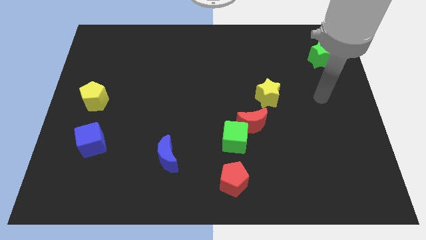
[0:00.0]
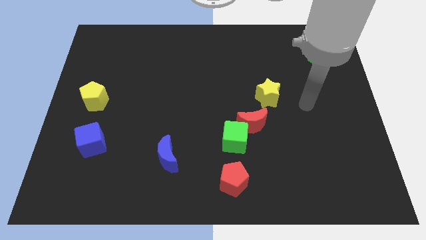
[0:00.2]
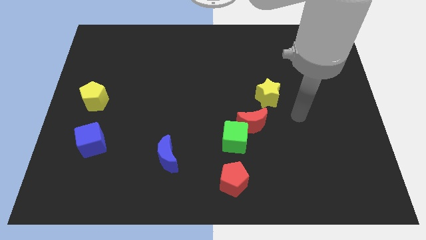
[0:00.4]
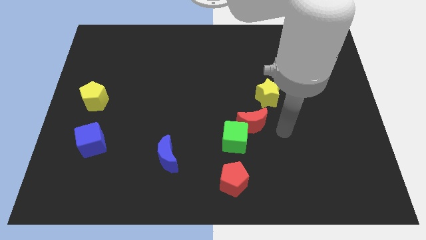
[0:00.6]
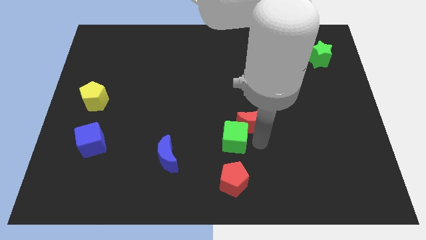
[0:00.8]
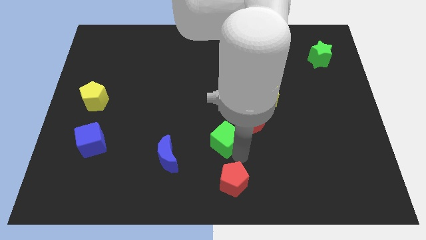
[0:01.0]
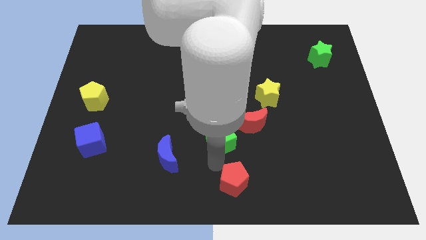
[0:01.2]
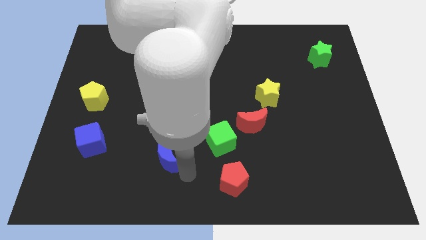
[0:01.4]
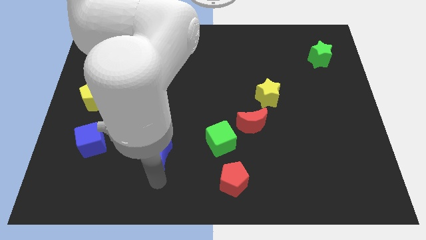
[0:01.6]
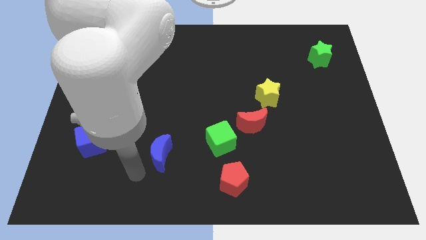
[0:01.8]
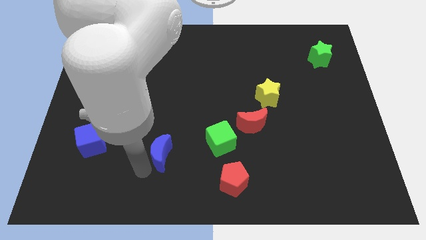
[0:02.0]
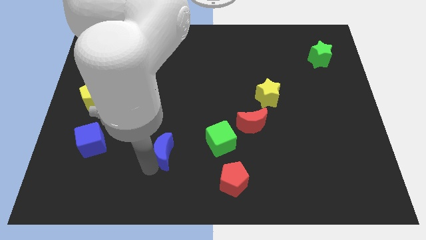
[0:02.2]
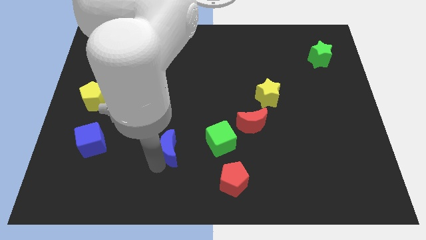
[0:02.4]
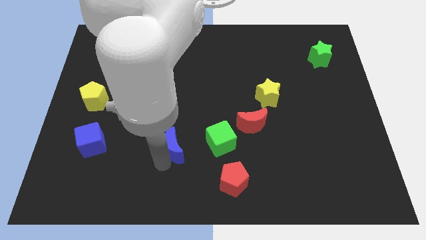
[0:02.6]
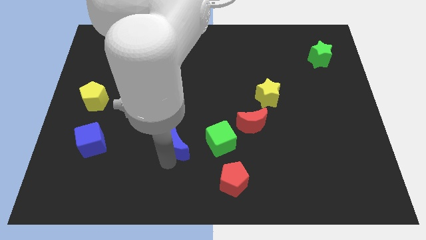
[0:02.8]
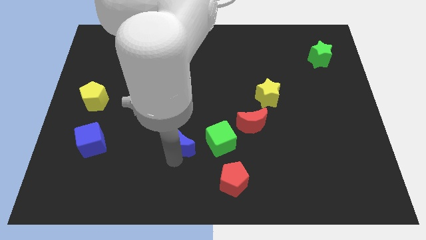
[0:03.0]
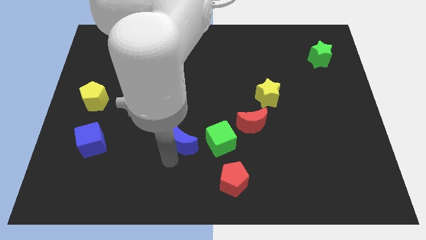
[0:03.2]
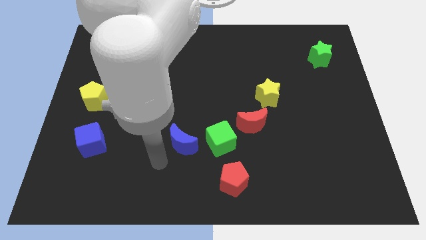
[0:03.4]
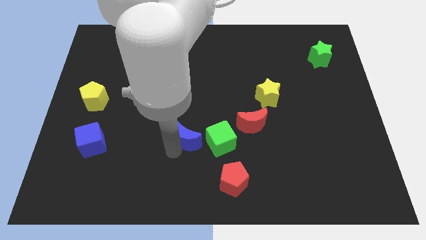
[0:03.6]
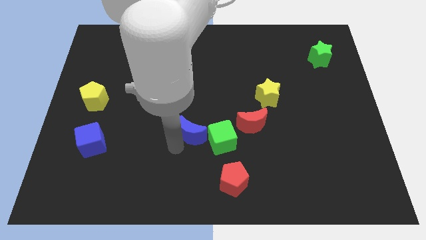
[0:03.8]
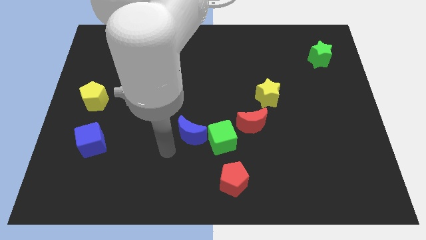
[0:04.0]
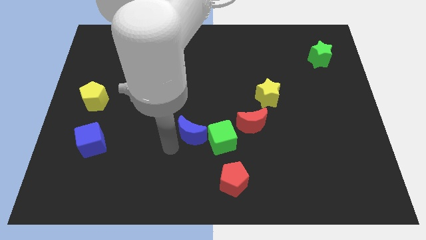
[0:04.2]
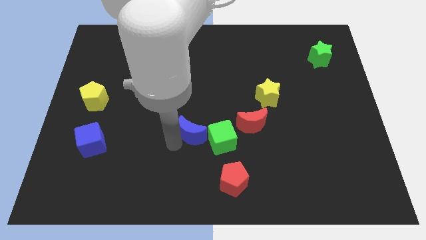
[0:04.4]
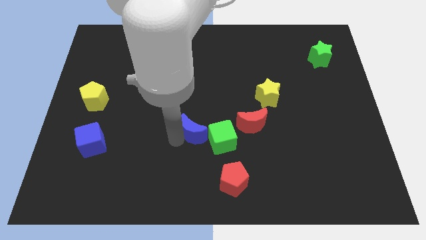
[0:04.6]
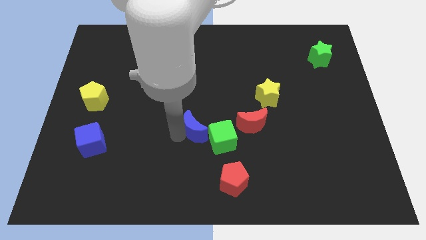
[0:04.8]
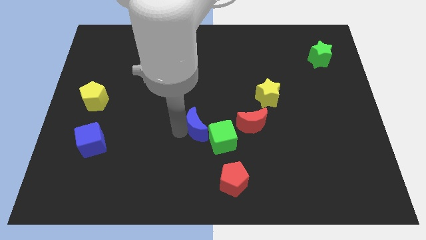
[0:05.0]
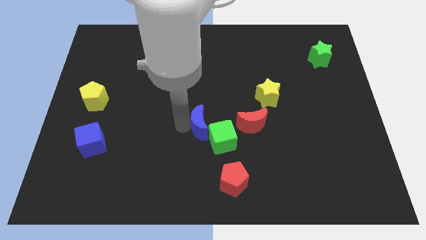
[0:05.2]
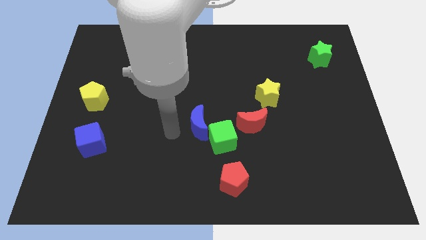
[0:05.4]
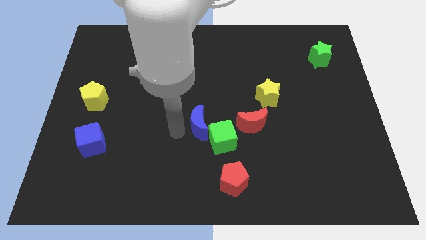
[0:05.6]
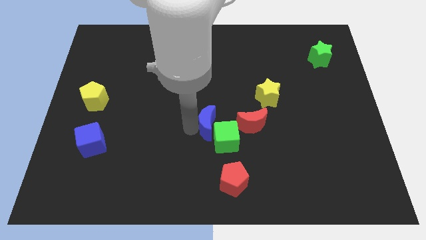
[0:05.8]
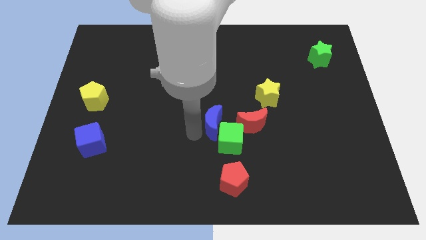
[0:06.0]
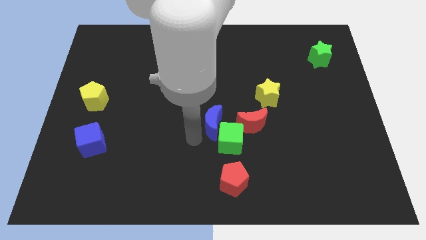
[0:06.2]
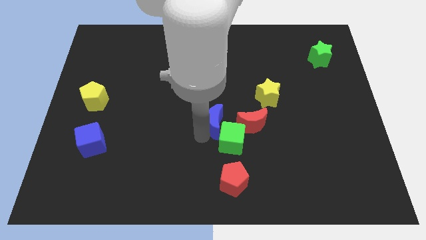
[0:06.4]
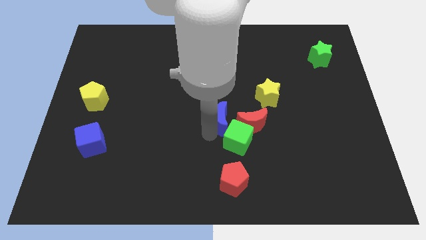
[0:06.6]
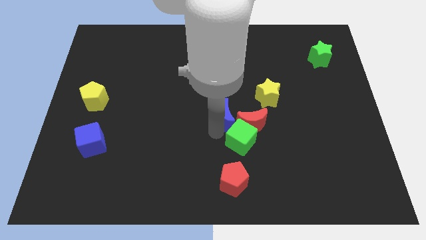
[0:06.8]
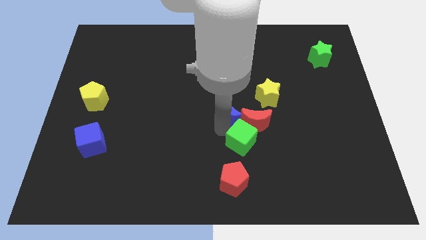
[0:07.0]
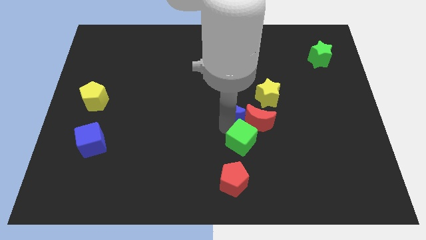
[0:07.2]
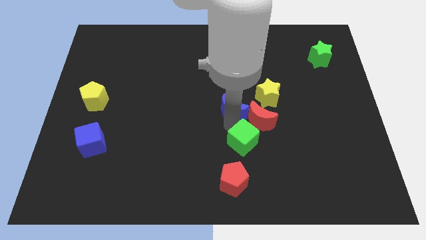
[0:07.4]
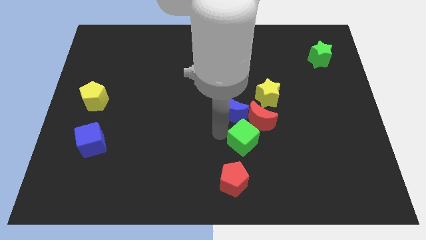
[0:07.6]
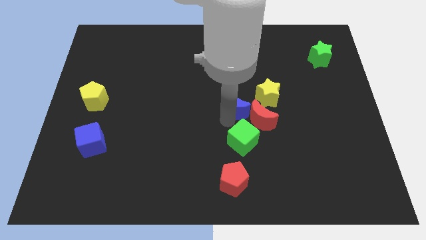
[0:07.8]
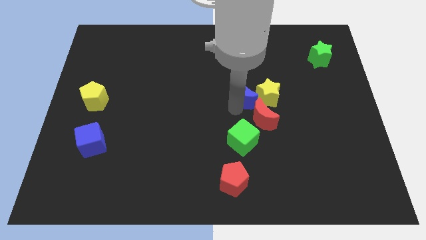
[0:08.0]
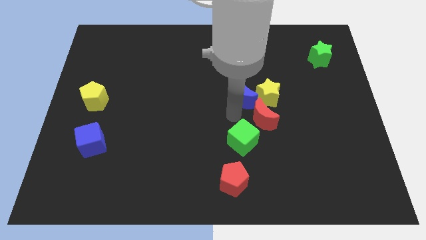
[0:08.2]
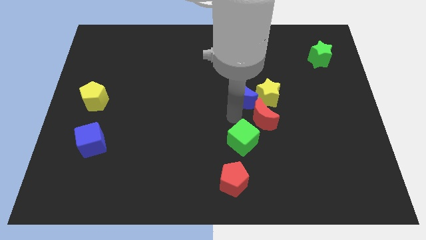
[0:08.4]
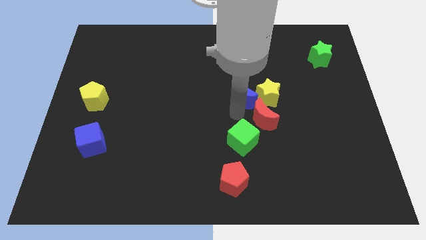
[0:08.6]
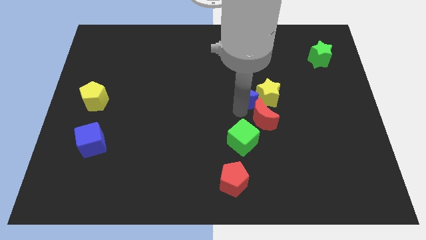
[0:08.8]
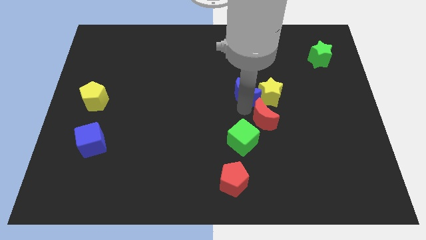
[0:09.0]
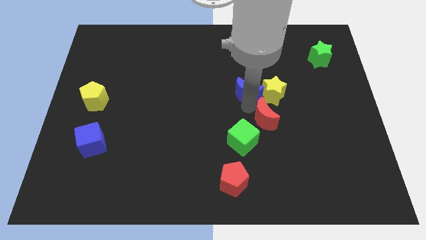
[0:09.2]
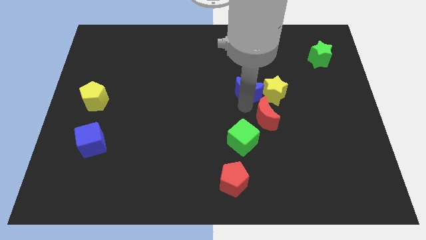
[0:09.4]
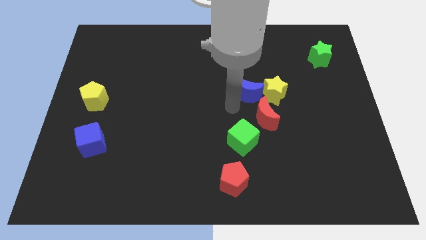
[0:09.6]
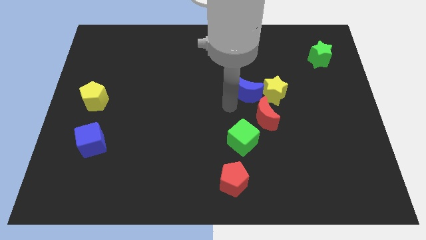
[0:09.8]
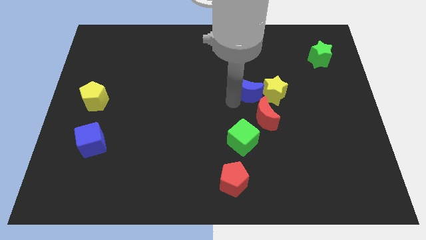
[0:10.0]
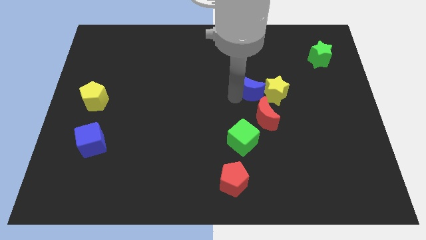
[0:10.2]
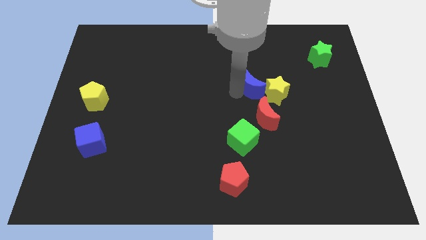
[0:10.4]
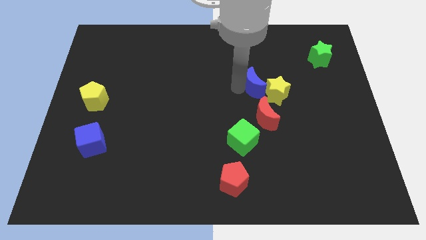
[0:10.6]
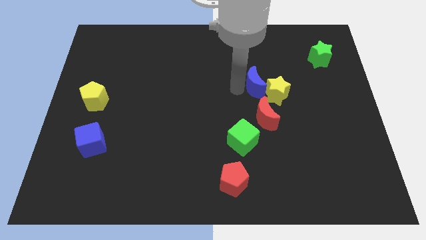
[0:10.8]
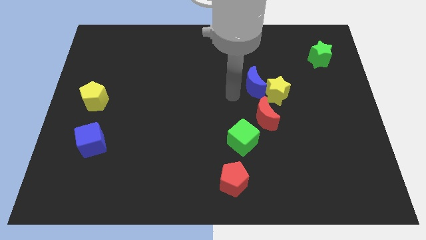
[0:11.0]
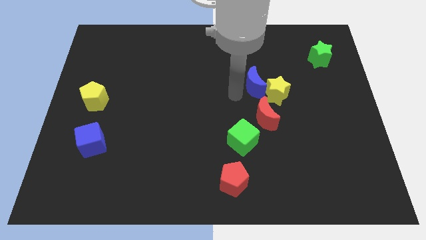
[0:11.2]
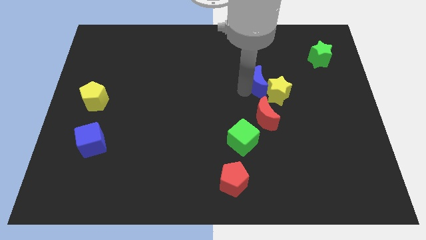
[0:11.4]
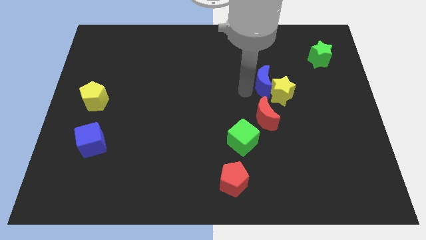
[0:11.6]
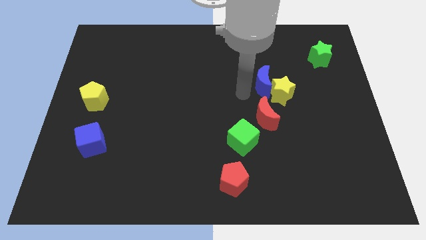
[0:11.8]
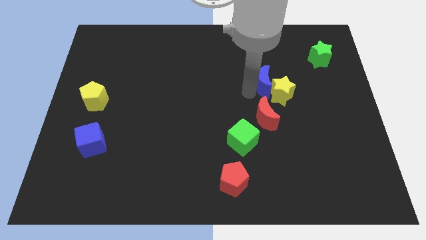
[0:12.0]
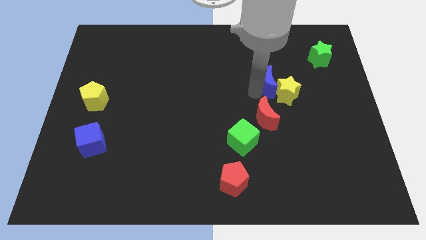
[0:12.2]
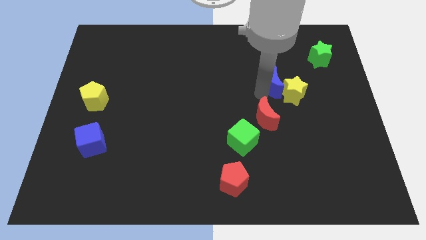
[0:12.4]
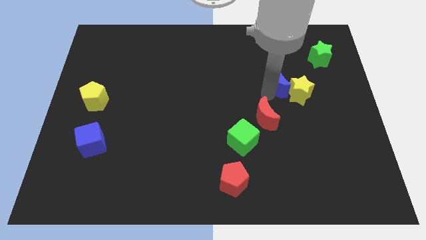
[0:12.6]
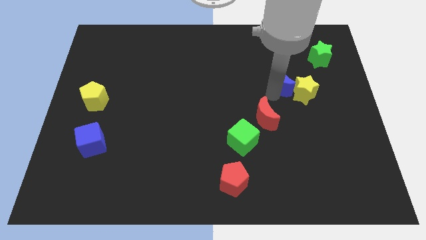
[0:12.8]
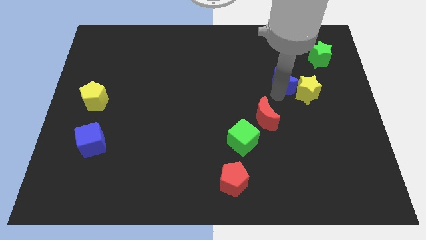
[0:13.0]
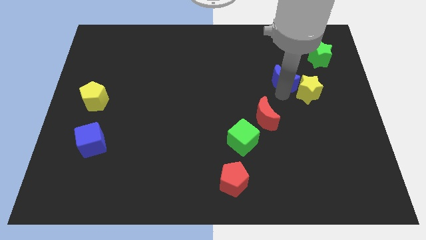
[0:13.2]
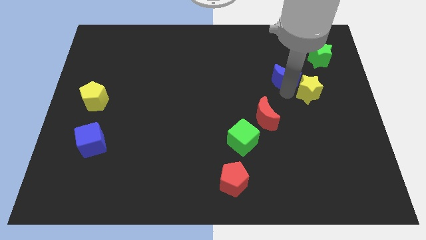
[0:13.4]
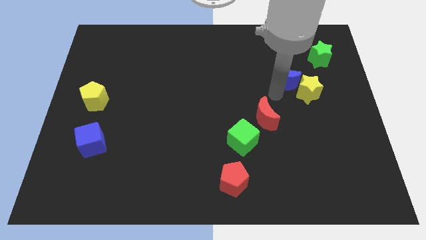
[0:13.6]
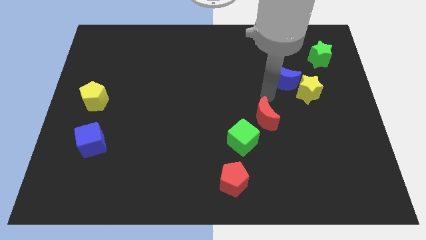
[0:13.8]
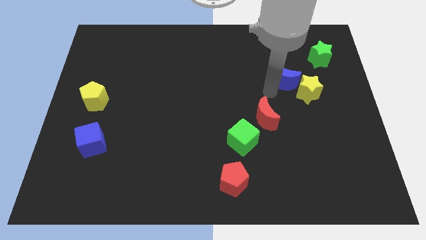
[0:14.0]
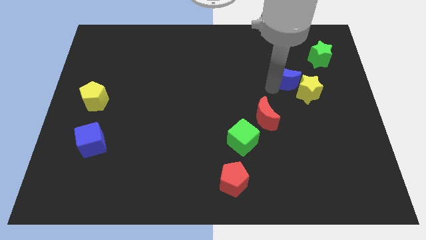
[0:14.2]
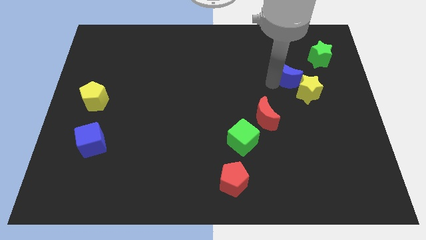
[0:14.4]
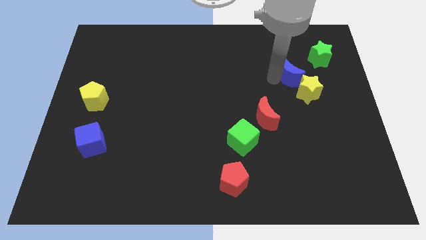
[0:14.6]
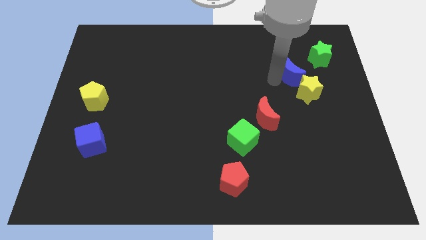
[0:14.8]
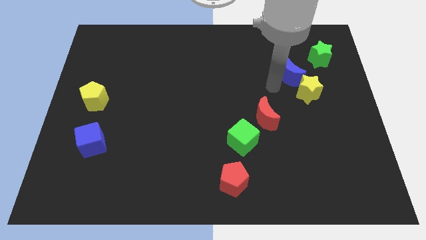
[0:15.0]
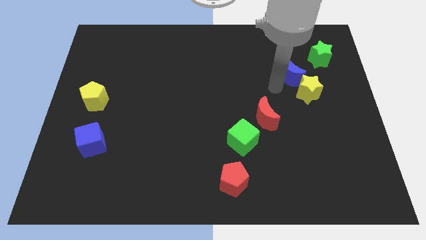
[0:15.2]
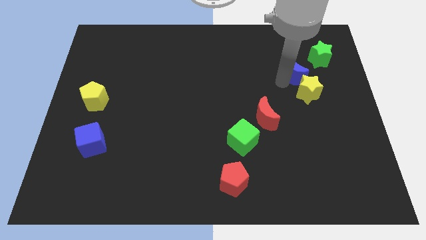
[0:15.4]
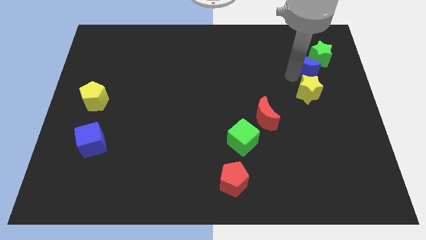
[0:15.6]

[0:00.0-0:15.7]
slide the blue moon next to the green star
